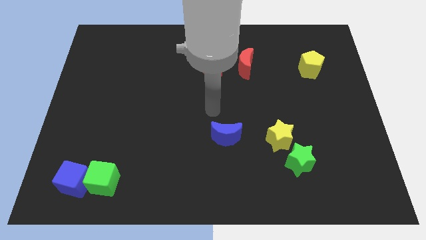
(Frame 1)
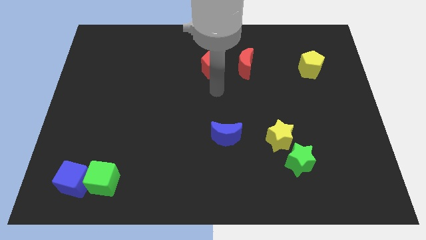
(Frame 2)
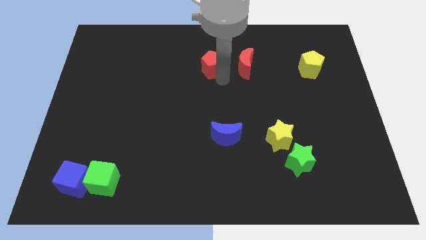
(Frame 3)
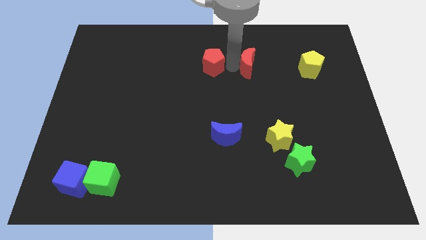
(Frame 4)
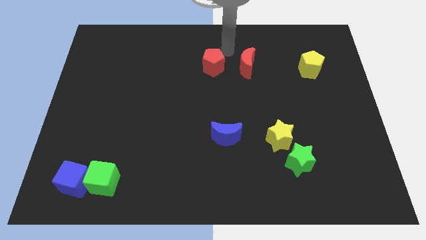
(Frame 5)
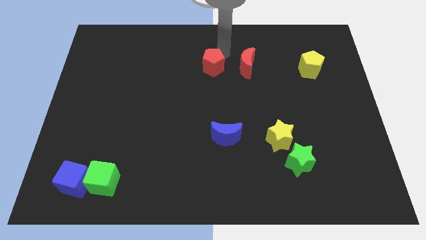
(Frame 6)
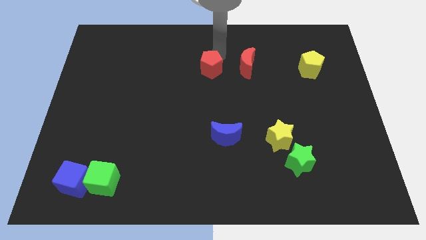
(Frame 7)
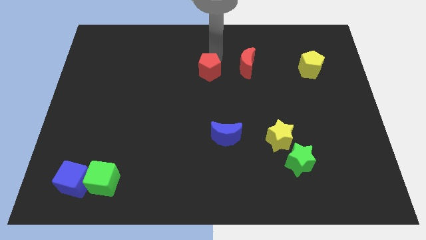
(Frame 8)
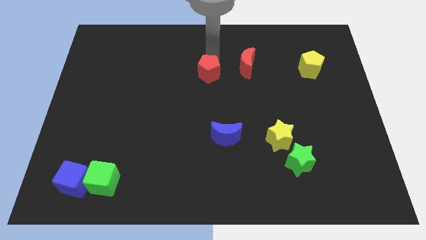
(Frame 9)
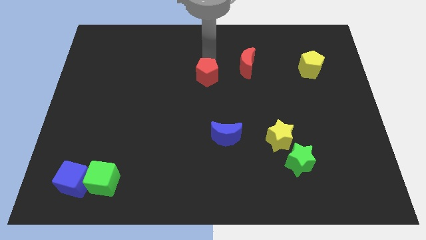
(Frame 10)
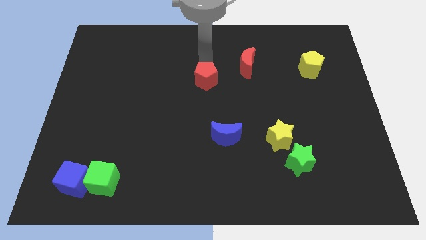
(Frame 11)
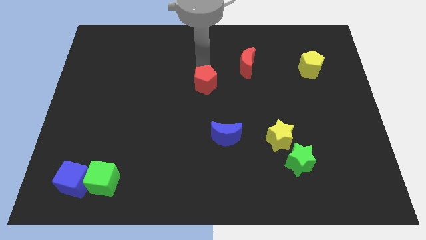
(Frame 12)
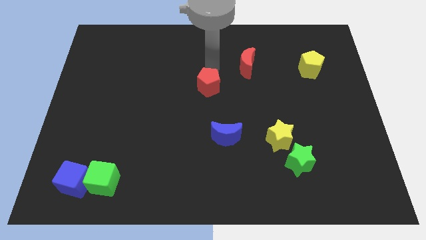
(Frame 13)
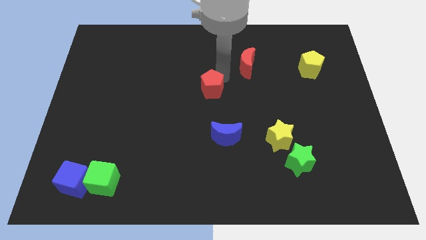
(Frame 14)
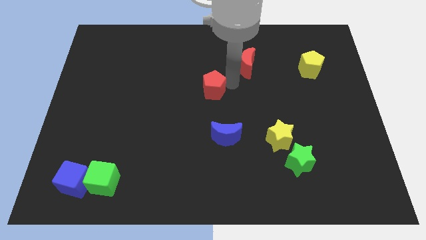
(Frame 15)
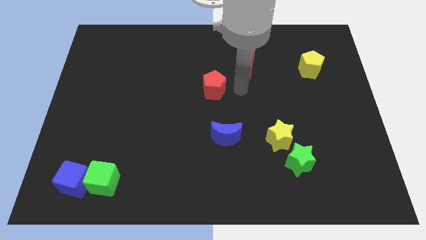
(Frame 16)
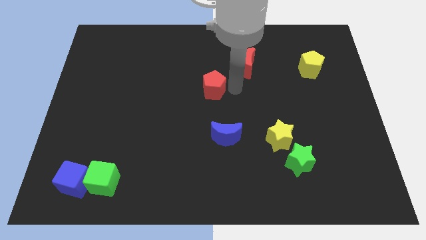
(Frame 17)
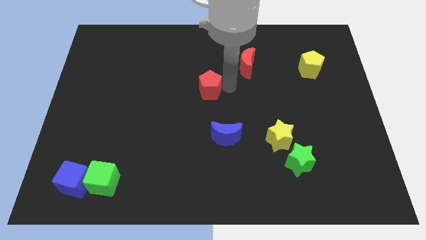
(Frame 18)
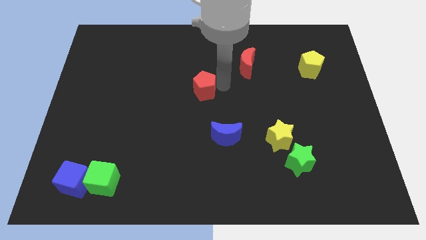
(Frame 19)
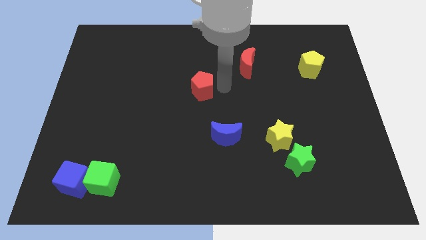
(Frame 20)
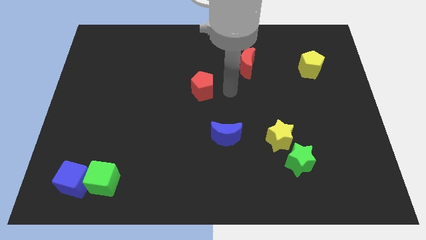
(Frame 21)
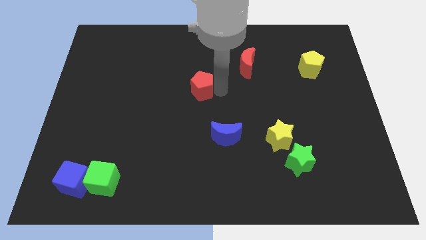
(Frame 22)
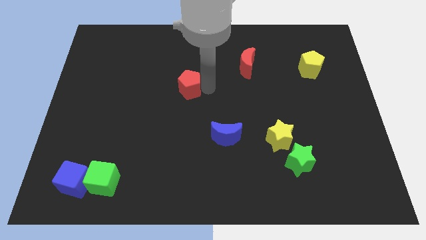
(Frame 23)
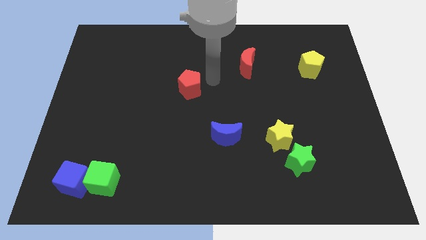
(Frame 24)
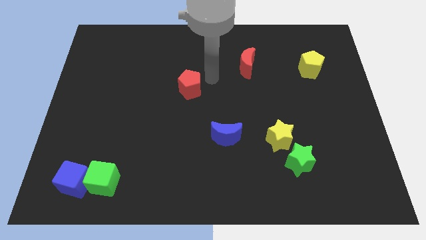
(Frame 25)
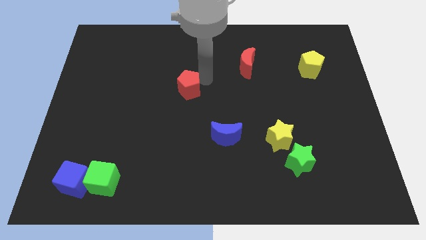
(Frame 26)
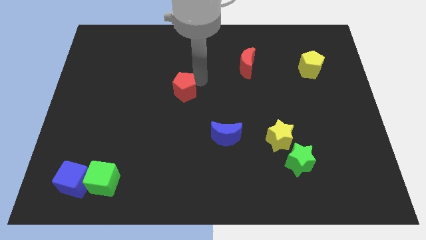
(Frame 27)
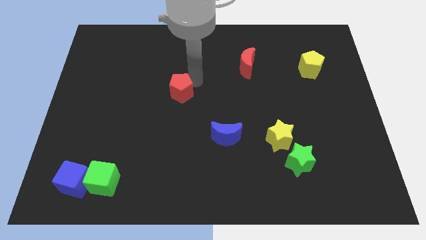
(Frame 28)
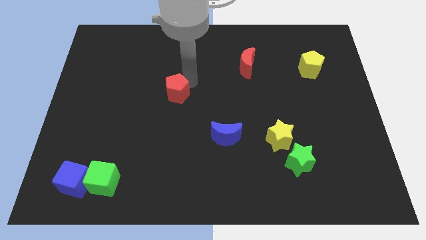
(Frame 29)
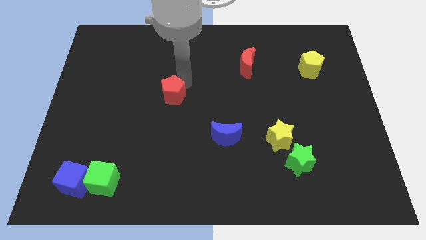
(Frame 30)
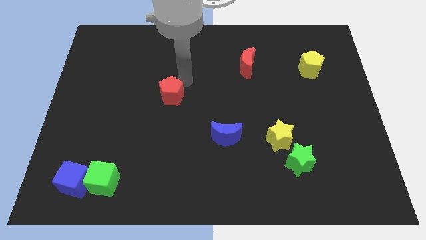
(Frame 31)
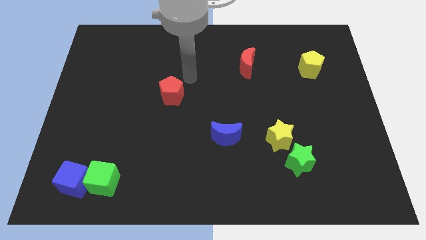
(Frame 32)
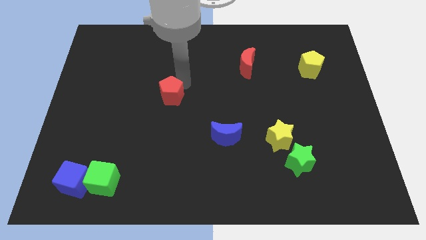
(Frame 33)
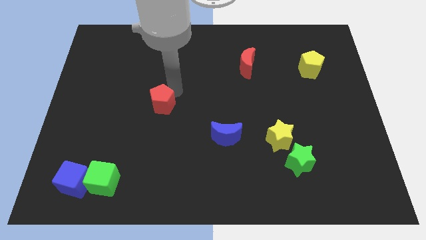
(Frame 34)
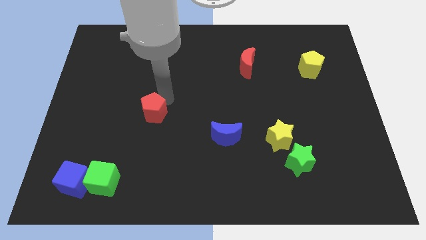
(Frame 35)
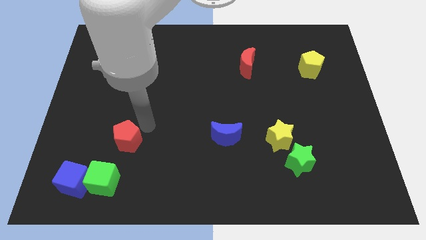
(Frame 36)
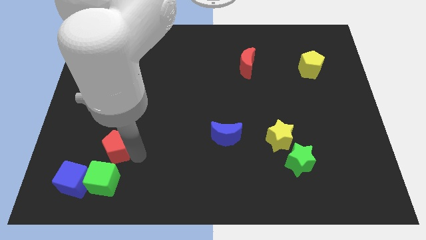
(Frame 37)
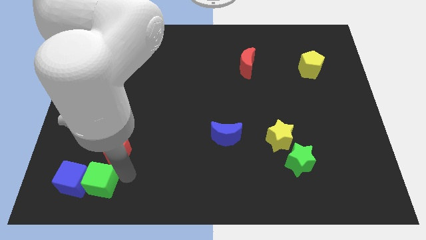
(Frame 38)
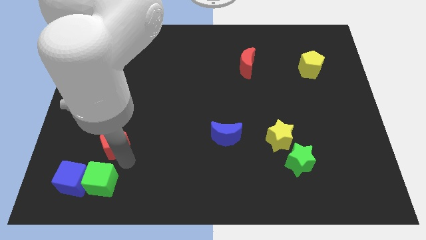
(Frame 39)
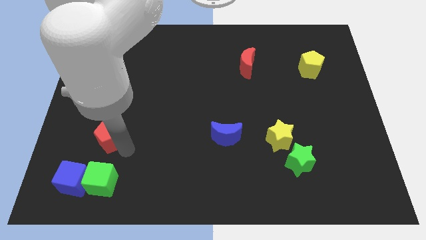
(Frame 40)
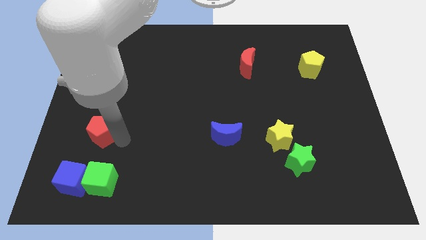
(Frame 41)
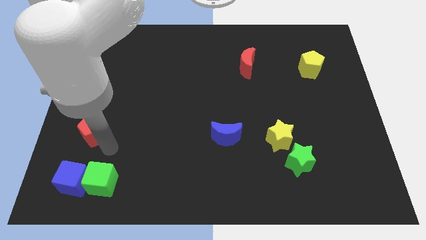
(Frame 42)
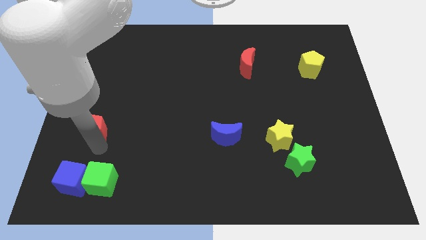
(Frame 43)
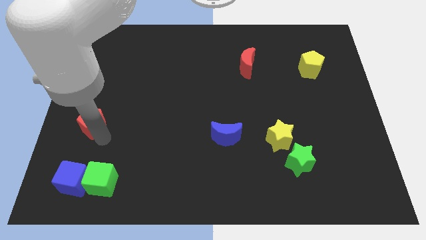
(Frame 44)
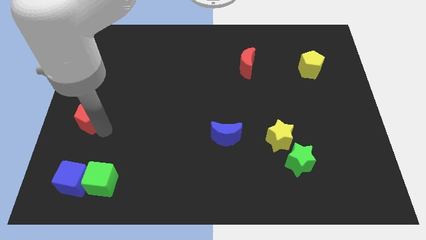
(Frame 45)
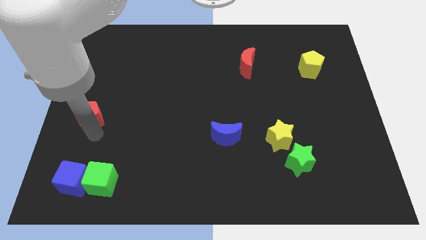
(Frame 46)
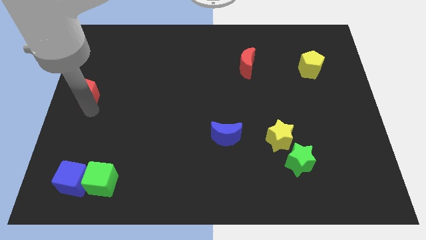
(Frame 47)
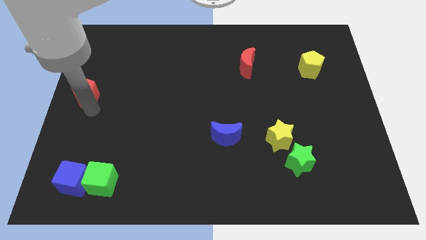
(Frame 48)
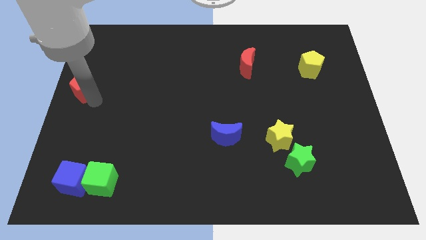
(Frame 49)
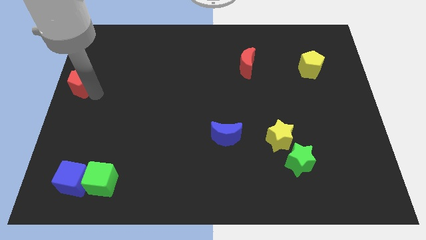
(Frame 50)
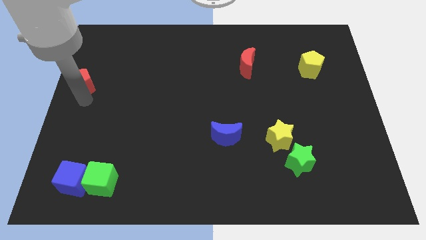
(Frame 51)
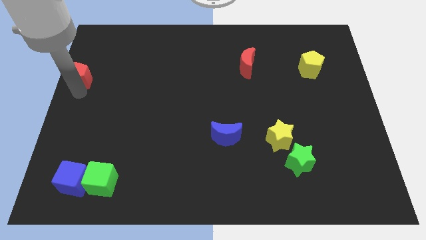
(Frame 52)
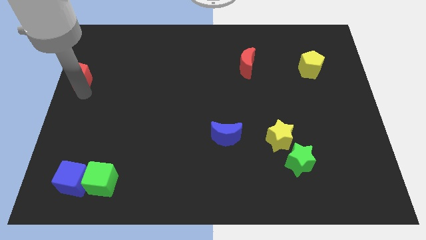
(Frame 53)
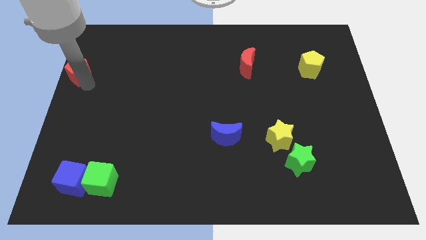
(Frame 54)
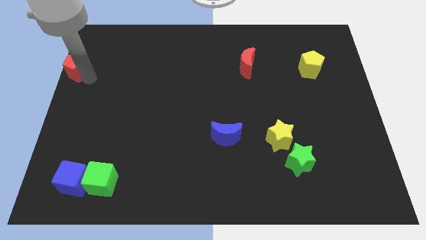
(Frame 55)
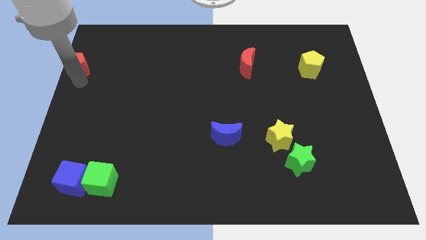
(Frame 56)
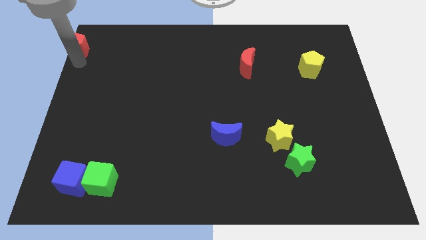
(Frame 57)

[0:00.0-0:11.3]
put the red pentagon to the top left of the board
